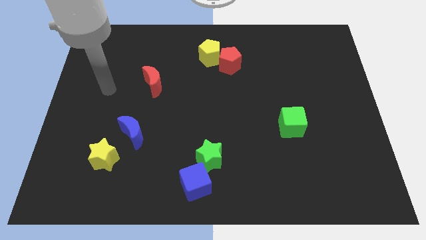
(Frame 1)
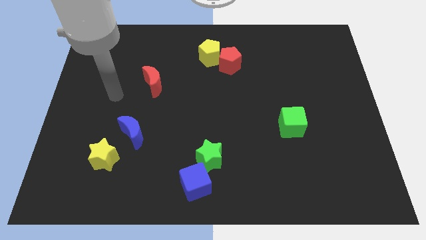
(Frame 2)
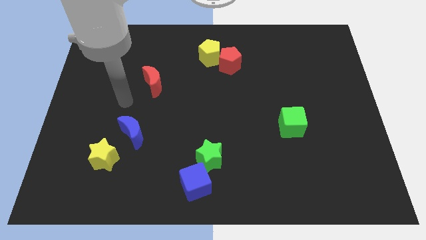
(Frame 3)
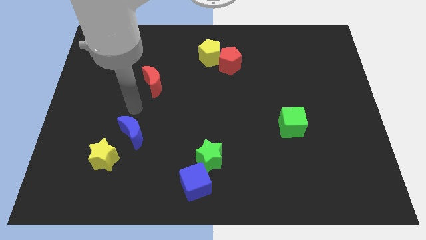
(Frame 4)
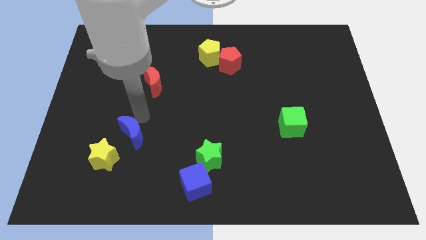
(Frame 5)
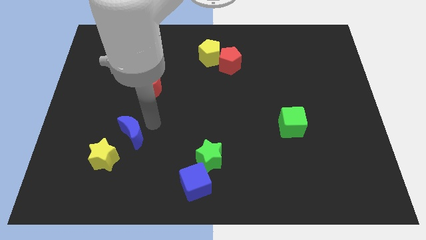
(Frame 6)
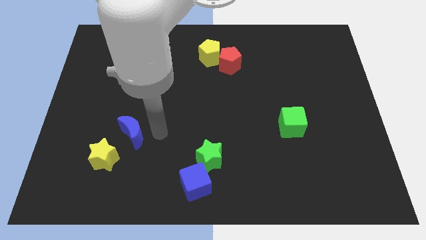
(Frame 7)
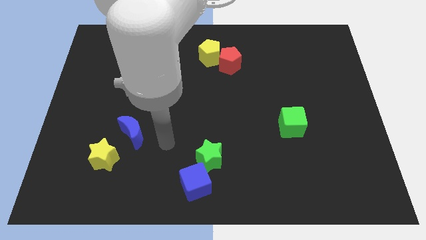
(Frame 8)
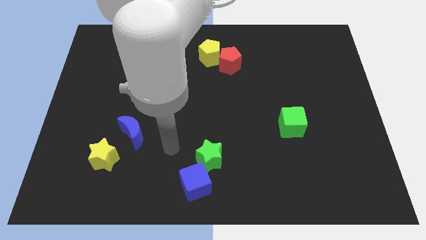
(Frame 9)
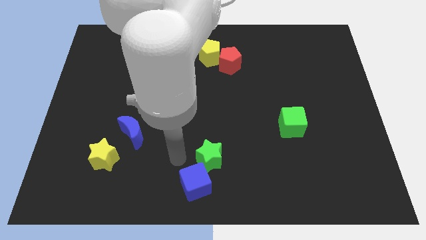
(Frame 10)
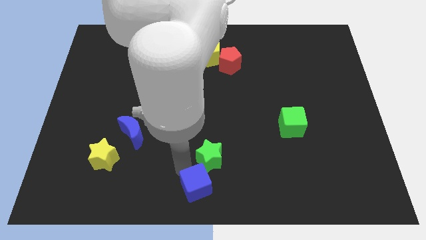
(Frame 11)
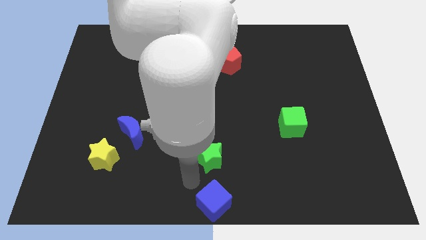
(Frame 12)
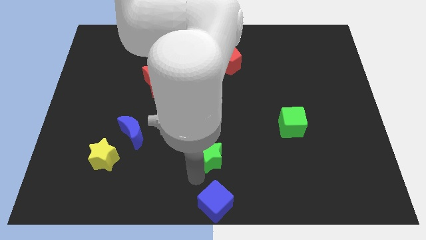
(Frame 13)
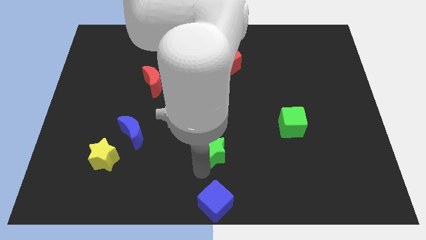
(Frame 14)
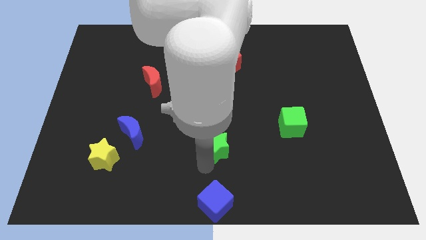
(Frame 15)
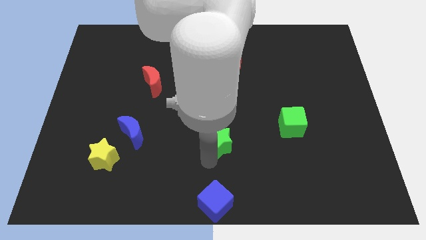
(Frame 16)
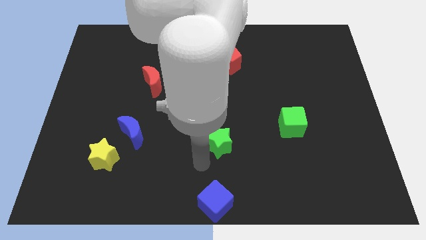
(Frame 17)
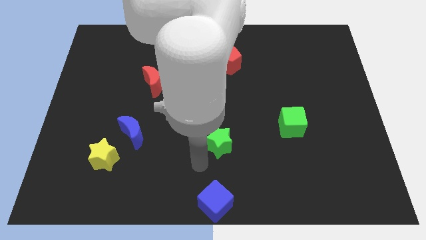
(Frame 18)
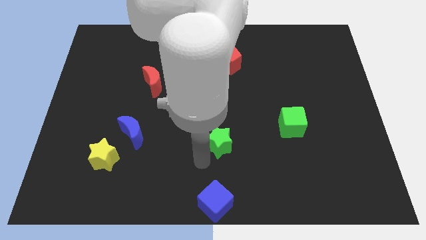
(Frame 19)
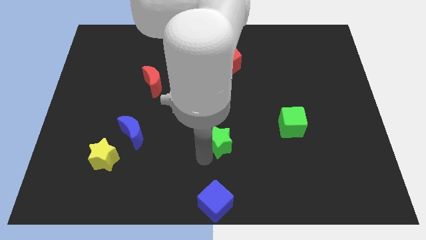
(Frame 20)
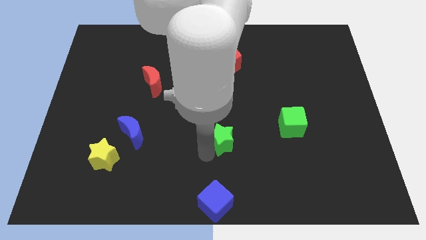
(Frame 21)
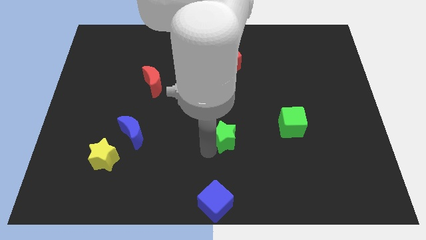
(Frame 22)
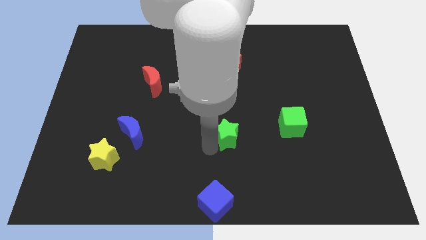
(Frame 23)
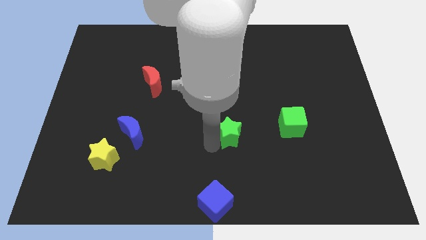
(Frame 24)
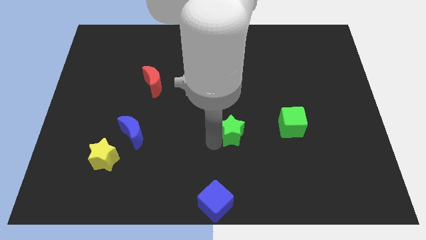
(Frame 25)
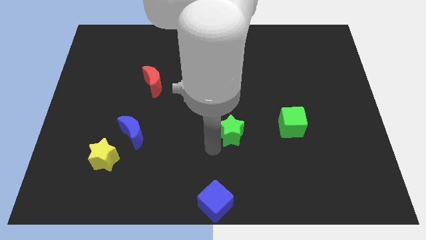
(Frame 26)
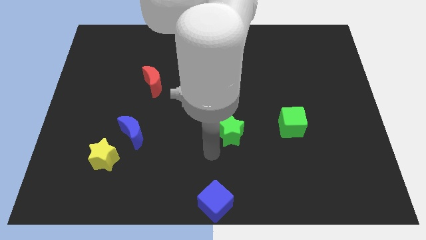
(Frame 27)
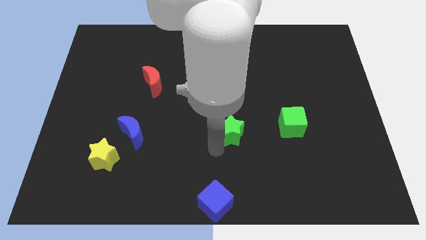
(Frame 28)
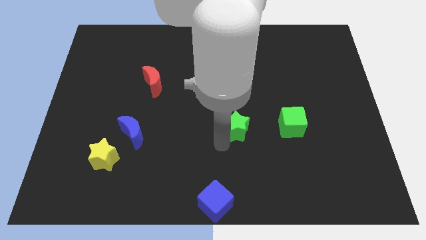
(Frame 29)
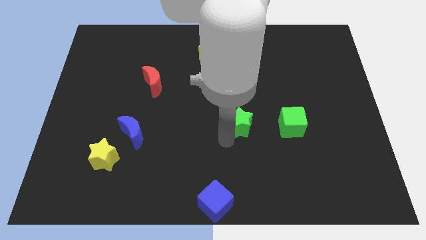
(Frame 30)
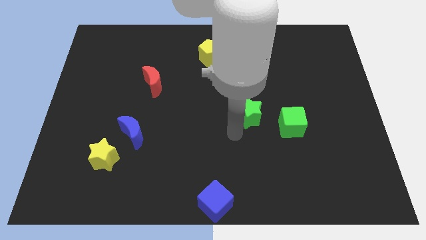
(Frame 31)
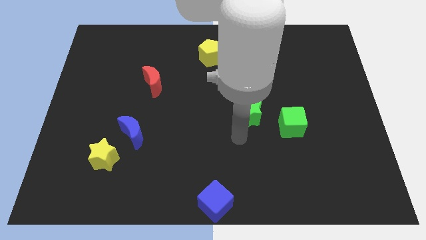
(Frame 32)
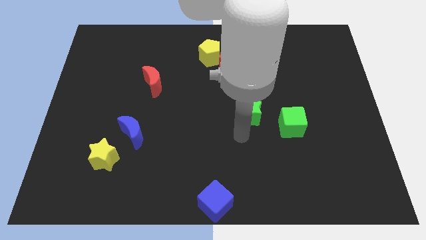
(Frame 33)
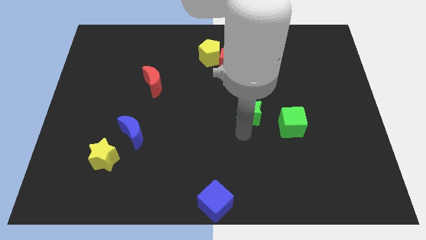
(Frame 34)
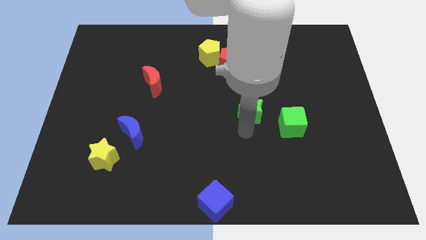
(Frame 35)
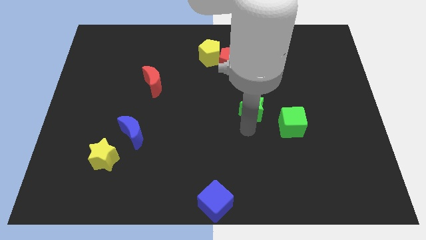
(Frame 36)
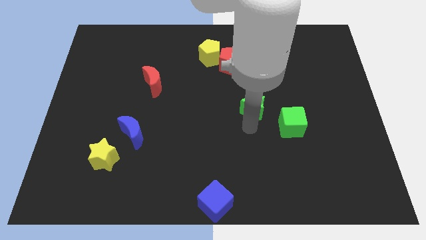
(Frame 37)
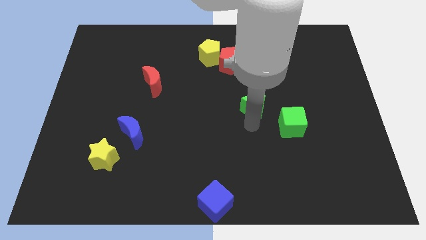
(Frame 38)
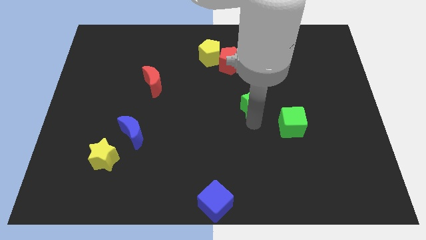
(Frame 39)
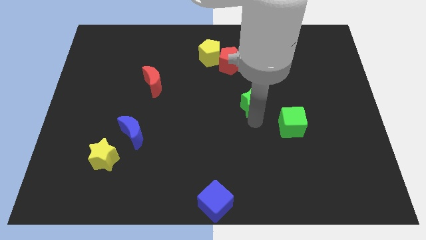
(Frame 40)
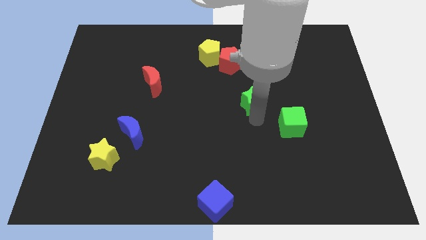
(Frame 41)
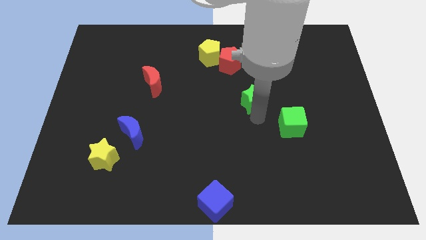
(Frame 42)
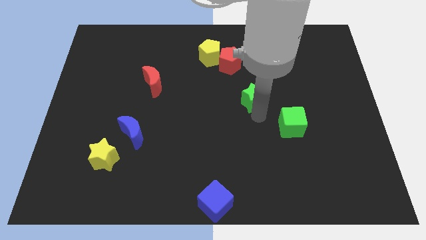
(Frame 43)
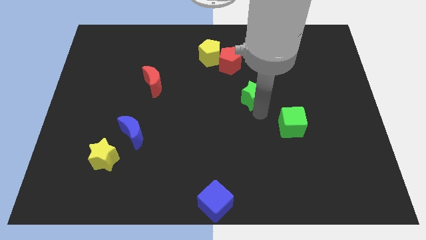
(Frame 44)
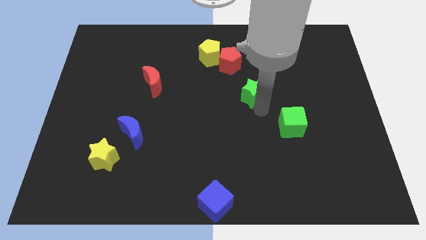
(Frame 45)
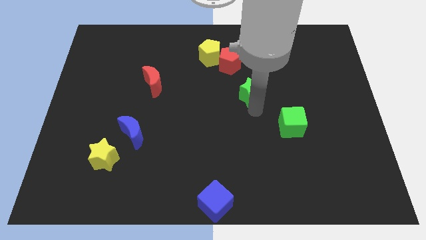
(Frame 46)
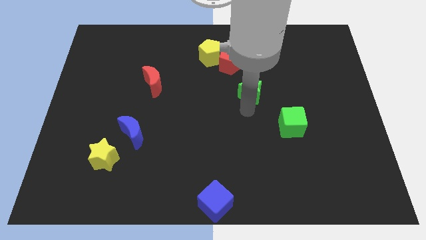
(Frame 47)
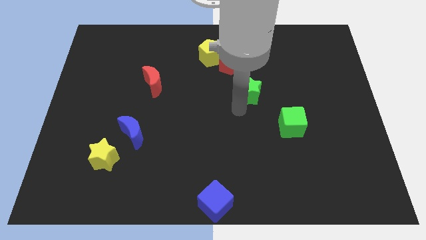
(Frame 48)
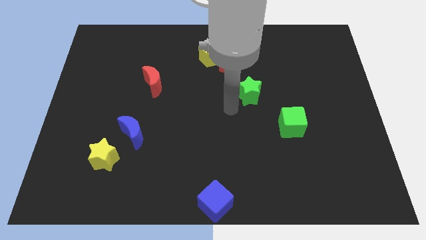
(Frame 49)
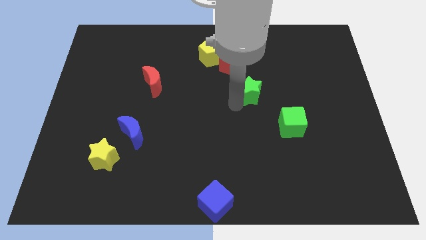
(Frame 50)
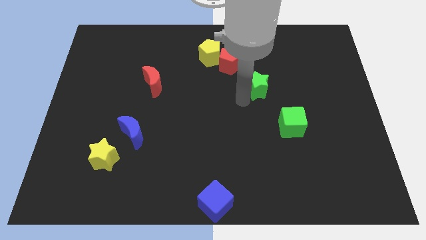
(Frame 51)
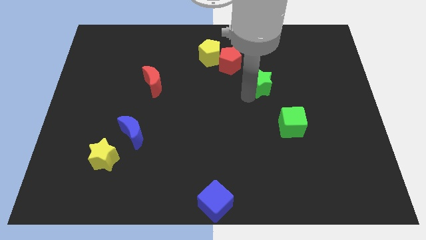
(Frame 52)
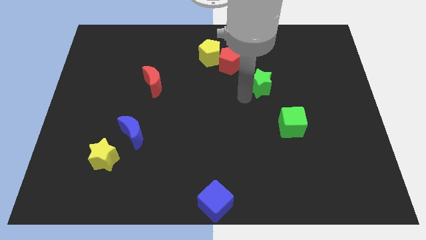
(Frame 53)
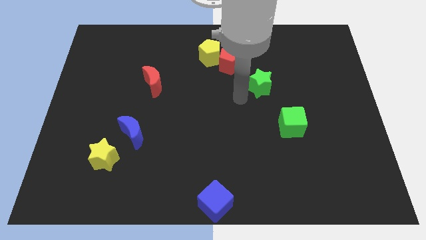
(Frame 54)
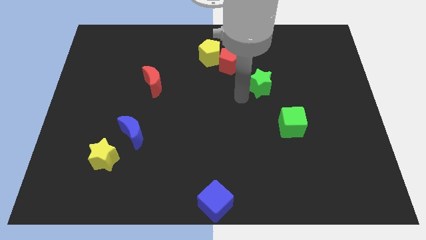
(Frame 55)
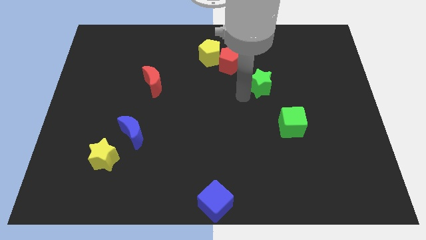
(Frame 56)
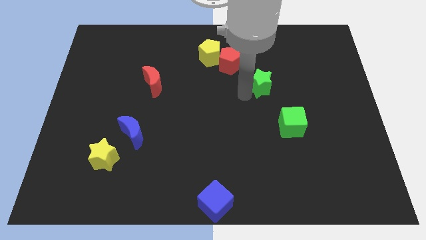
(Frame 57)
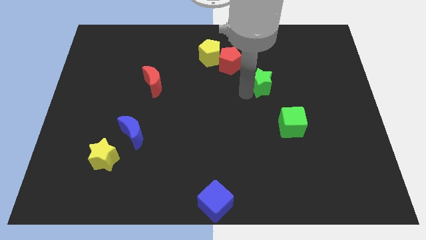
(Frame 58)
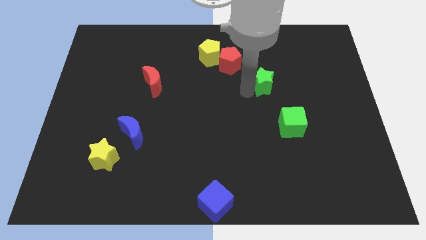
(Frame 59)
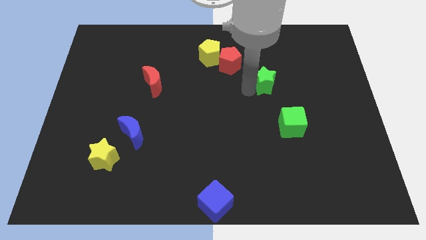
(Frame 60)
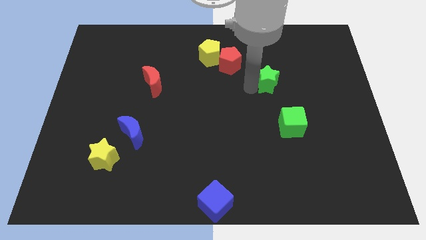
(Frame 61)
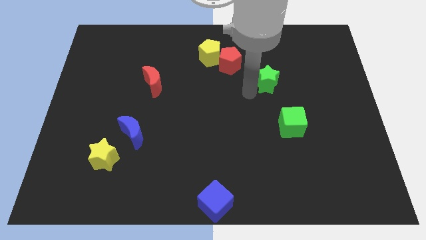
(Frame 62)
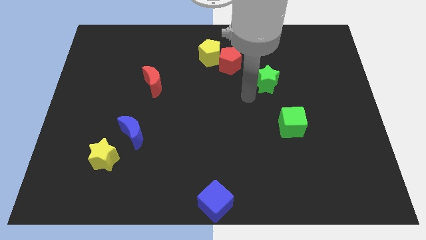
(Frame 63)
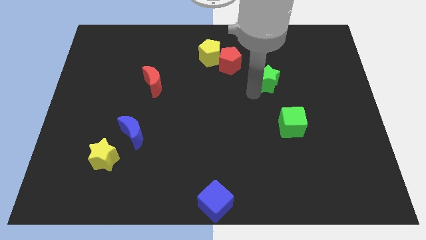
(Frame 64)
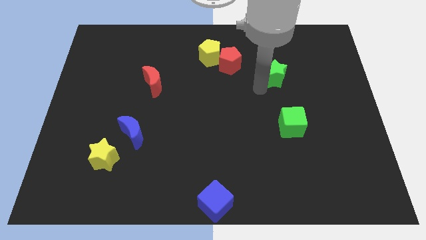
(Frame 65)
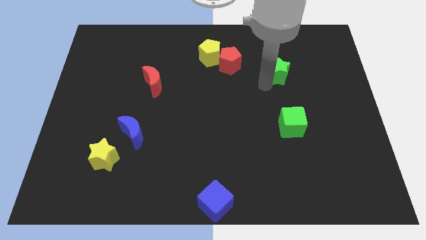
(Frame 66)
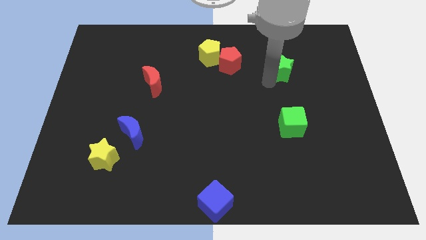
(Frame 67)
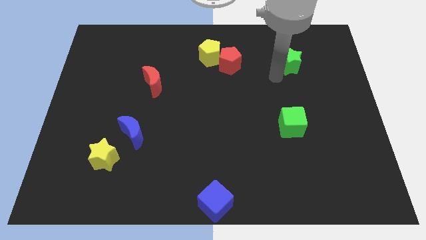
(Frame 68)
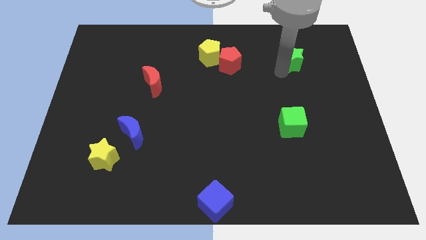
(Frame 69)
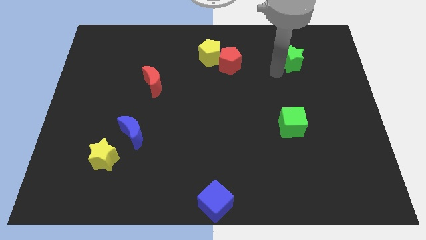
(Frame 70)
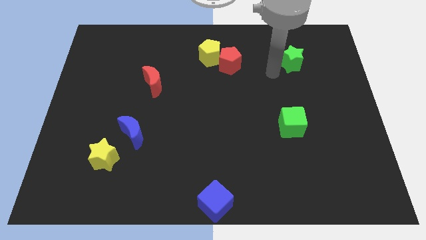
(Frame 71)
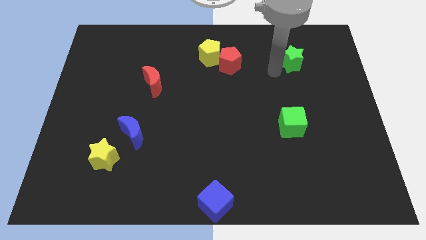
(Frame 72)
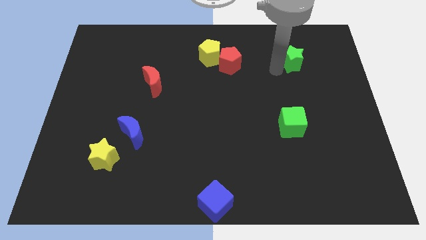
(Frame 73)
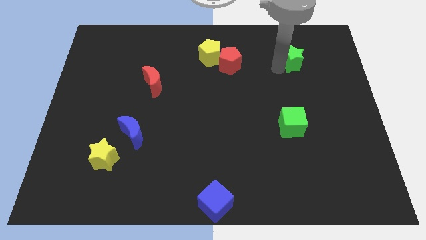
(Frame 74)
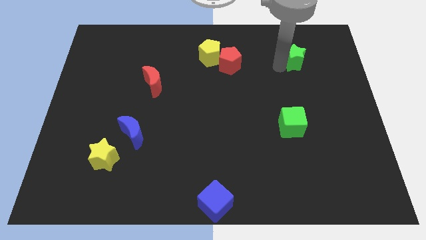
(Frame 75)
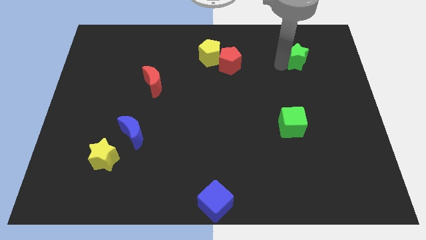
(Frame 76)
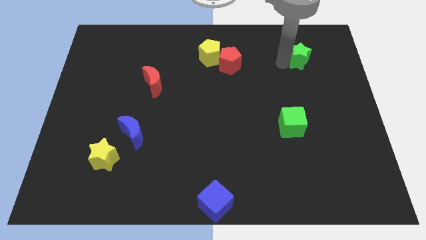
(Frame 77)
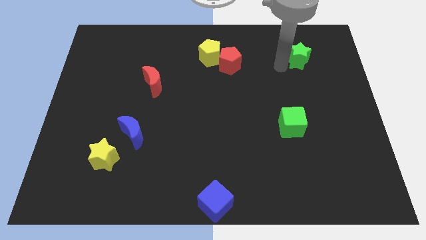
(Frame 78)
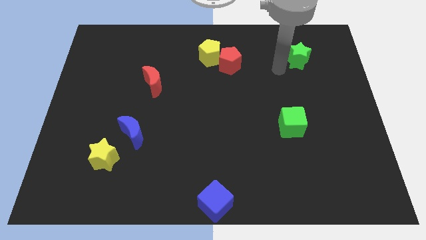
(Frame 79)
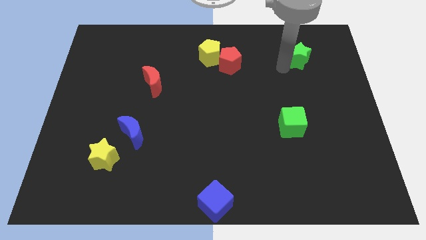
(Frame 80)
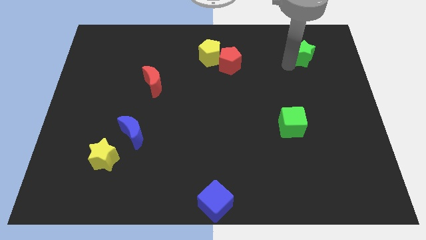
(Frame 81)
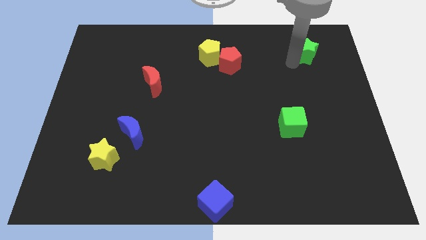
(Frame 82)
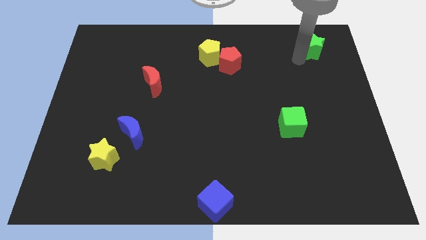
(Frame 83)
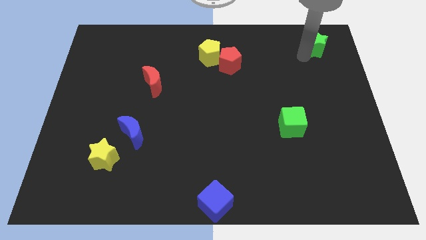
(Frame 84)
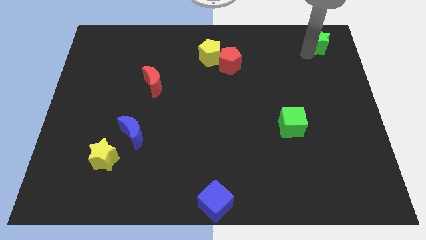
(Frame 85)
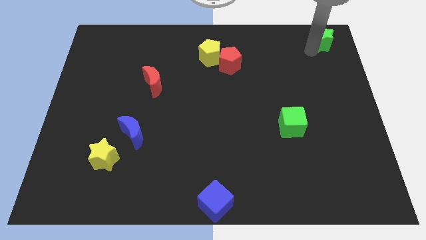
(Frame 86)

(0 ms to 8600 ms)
put the green star to the top right of the board
